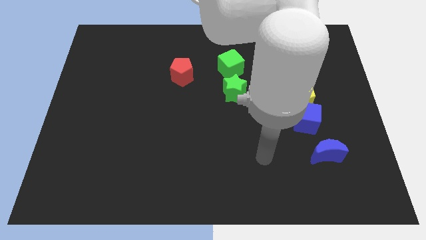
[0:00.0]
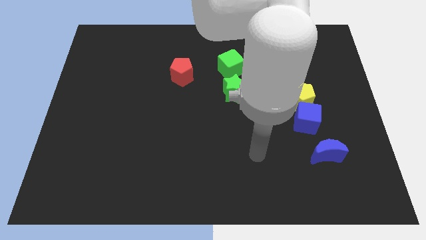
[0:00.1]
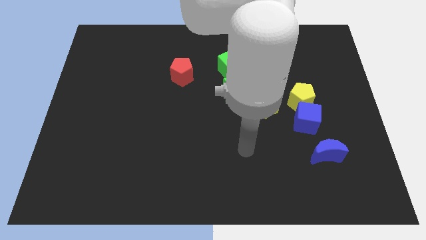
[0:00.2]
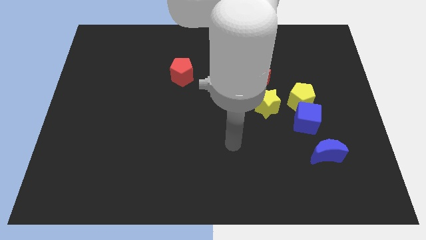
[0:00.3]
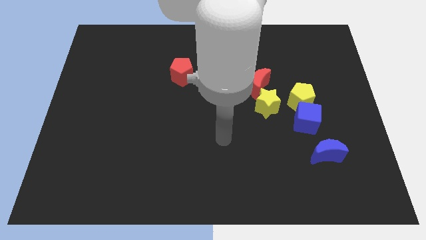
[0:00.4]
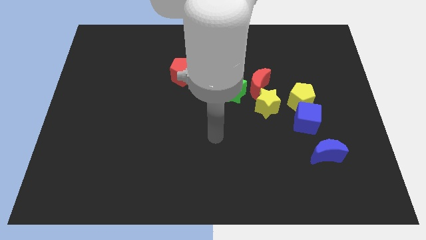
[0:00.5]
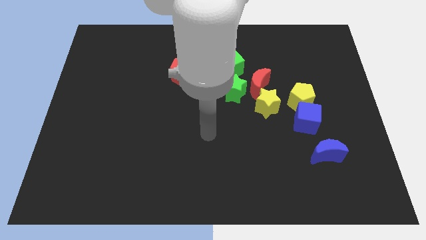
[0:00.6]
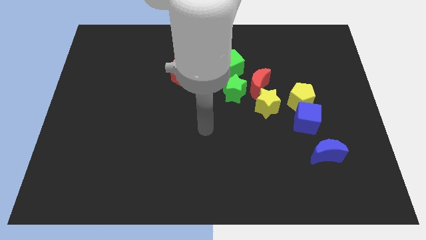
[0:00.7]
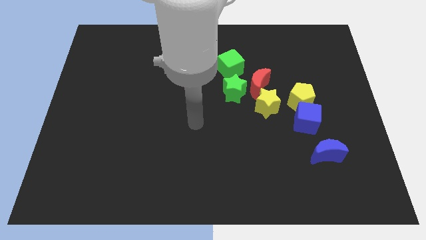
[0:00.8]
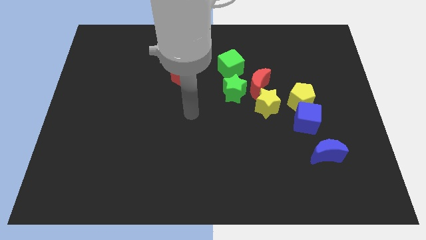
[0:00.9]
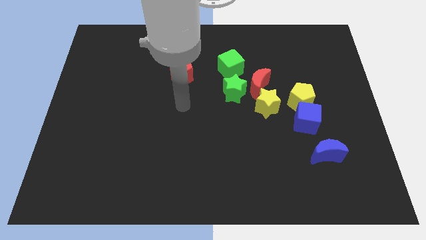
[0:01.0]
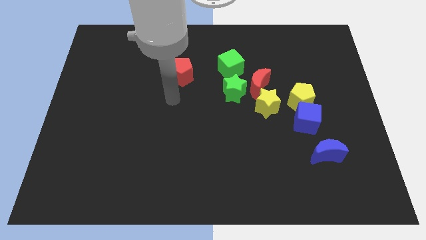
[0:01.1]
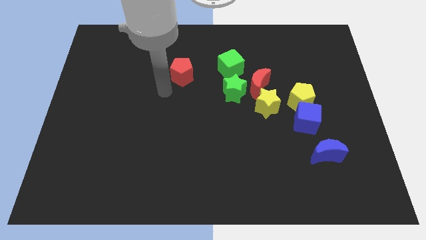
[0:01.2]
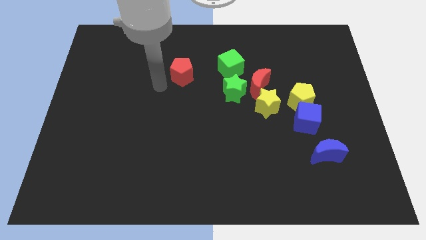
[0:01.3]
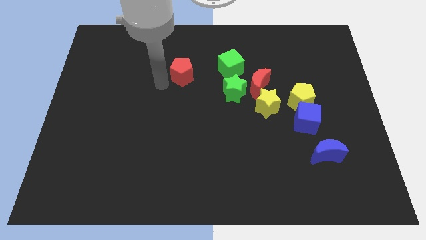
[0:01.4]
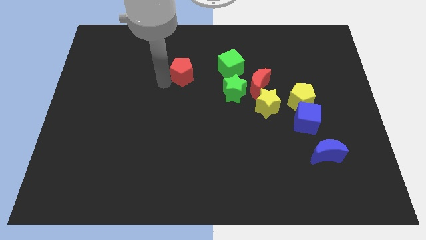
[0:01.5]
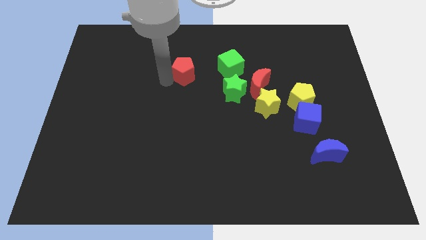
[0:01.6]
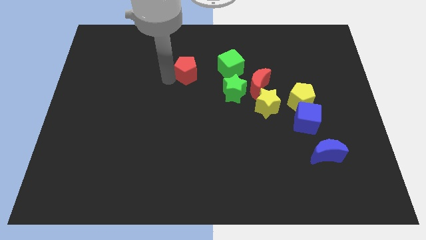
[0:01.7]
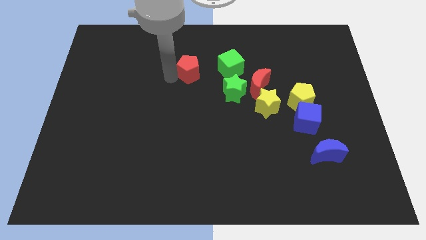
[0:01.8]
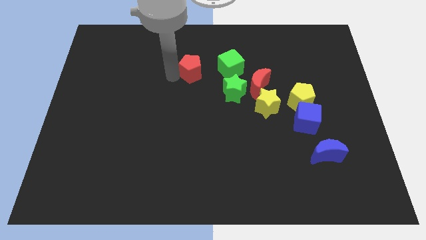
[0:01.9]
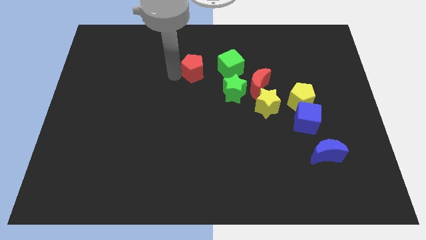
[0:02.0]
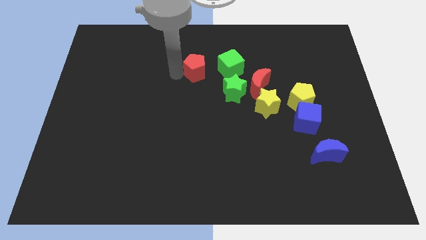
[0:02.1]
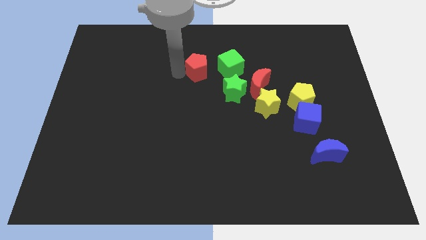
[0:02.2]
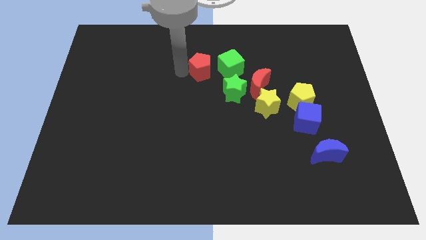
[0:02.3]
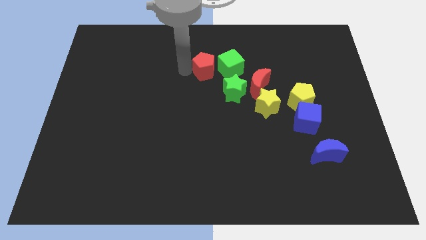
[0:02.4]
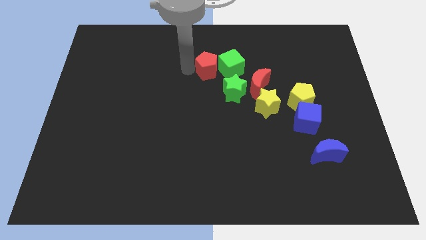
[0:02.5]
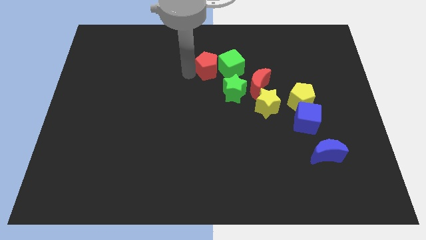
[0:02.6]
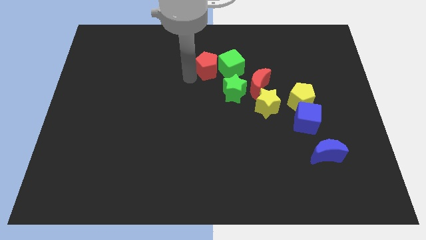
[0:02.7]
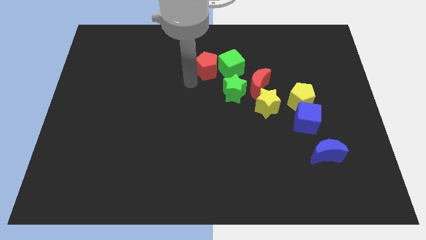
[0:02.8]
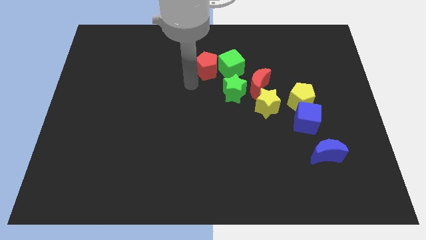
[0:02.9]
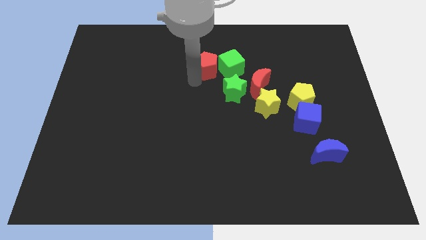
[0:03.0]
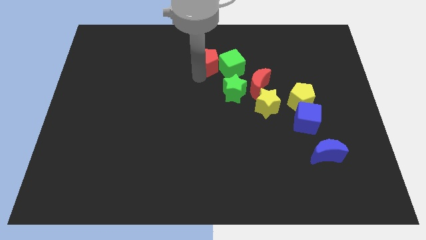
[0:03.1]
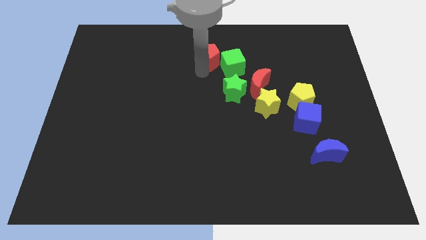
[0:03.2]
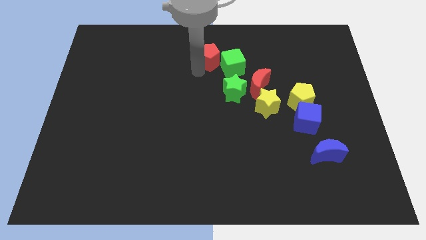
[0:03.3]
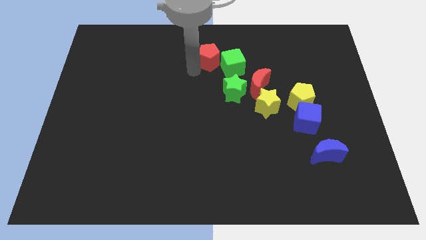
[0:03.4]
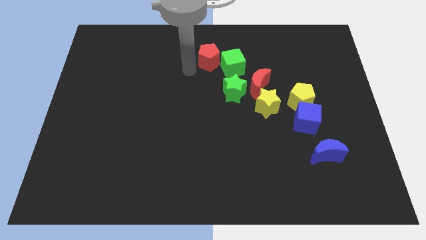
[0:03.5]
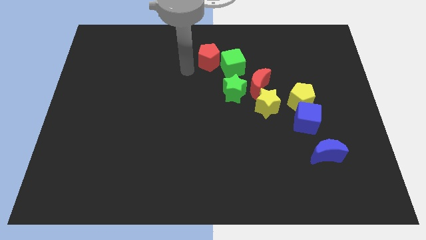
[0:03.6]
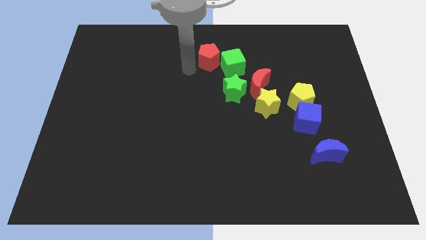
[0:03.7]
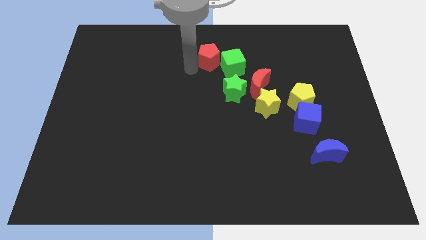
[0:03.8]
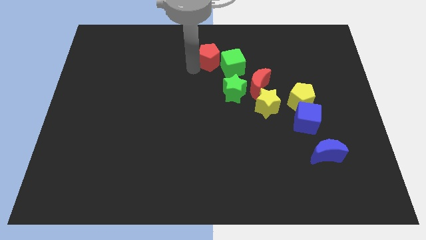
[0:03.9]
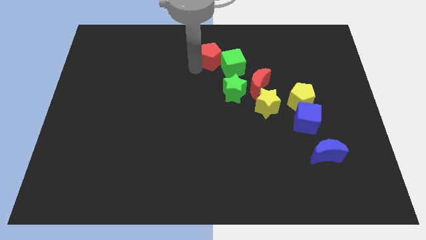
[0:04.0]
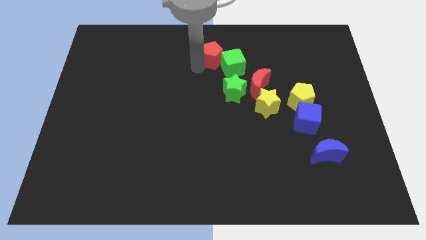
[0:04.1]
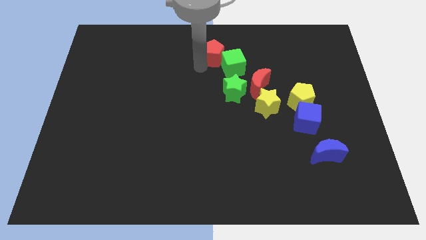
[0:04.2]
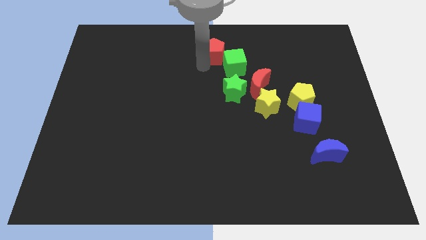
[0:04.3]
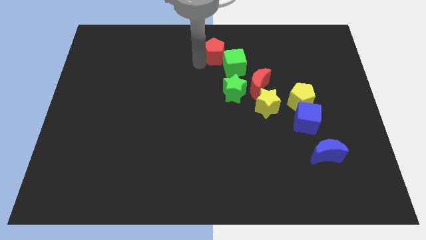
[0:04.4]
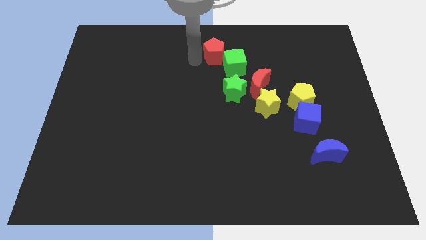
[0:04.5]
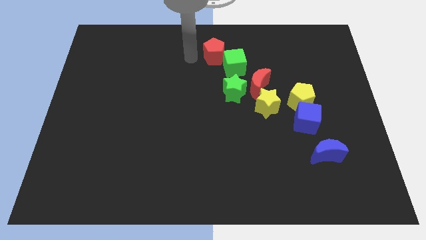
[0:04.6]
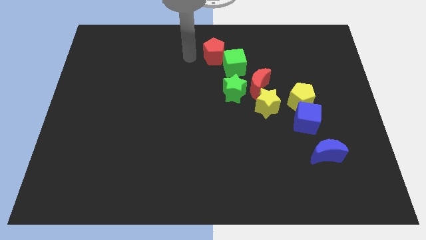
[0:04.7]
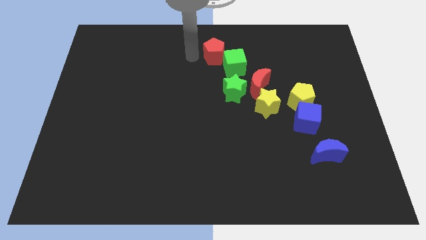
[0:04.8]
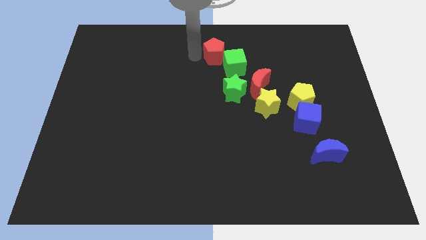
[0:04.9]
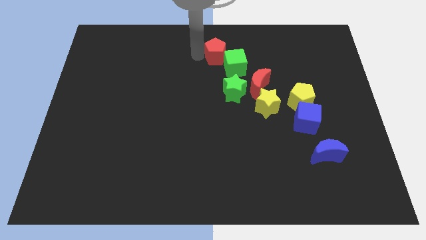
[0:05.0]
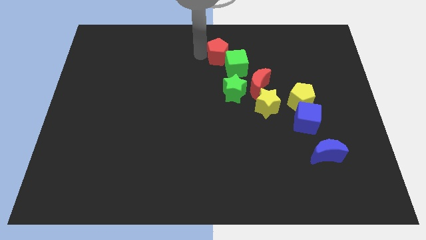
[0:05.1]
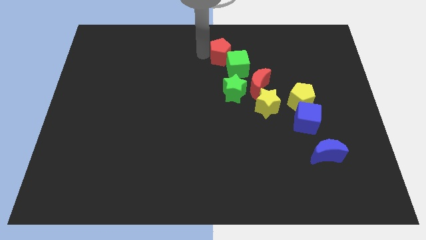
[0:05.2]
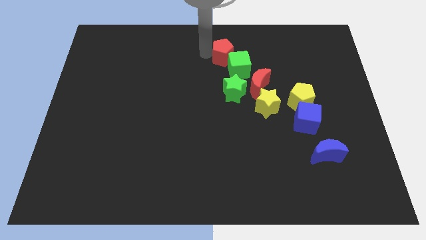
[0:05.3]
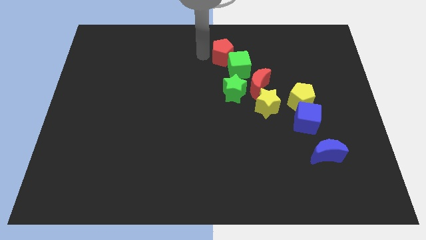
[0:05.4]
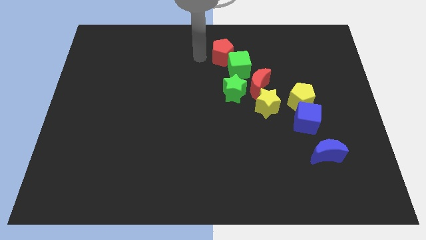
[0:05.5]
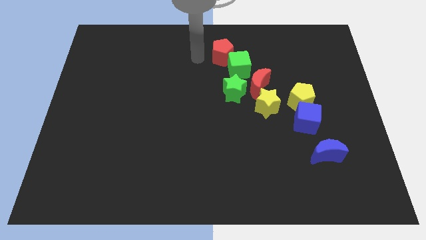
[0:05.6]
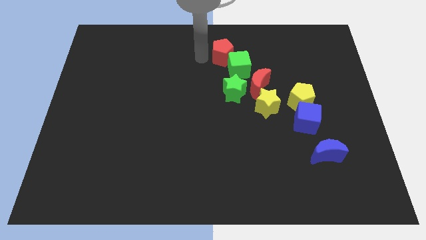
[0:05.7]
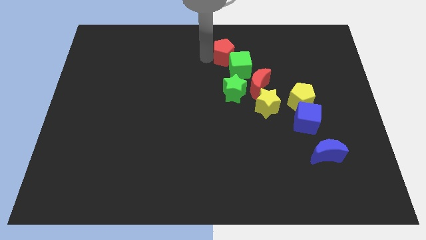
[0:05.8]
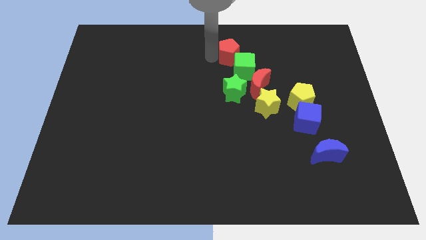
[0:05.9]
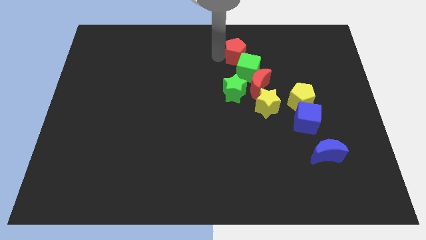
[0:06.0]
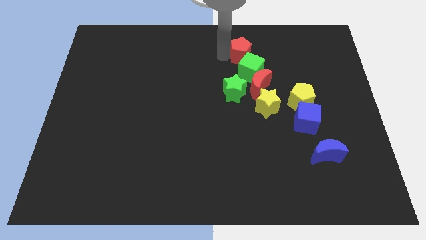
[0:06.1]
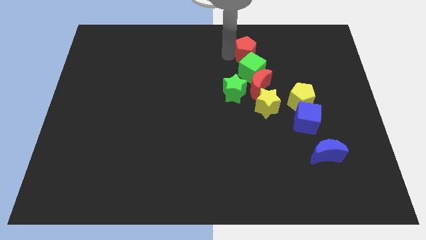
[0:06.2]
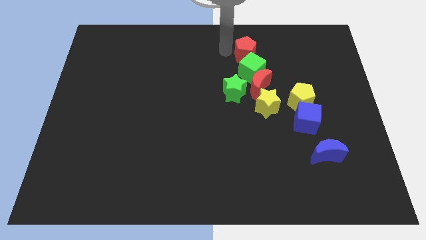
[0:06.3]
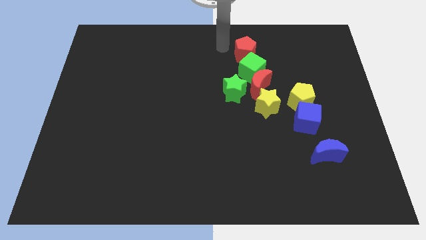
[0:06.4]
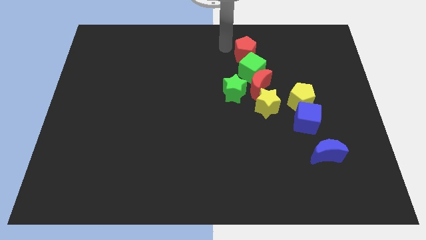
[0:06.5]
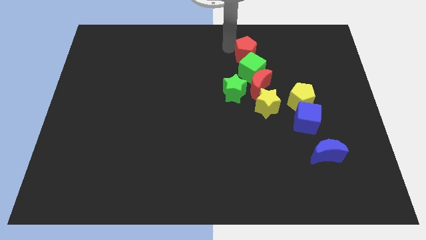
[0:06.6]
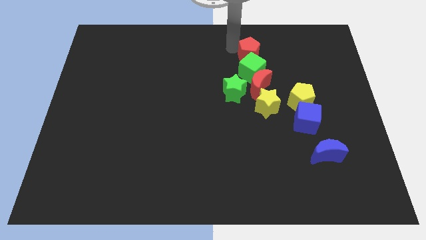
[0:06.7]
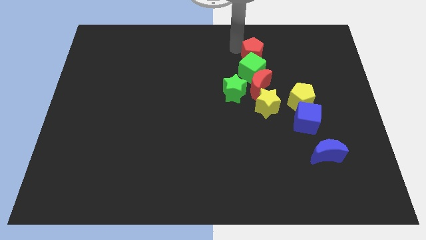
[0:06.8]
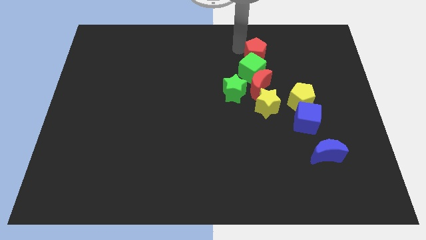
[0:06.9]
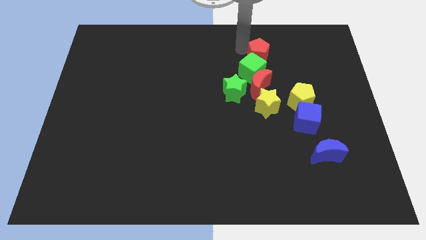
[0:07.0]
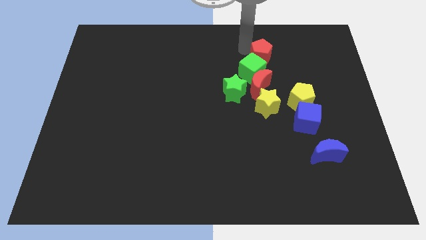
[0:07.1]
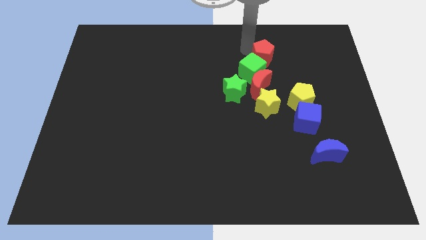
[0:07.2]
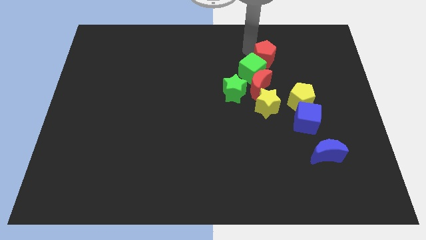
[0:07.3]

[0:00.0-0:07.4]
push the red pentagon to the right

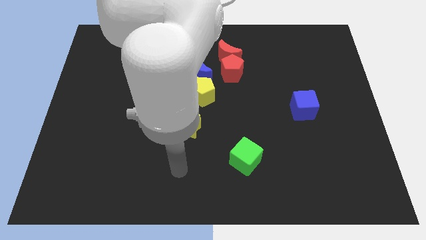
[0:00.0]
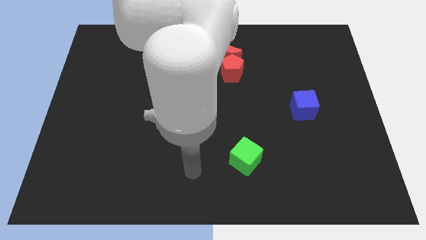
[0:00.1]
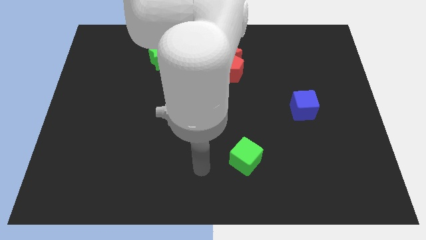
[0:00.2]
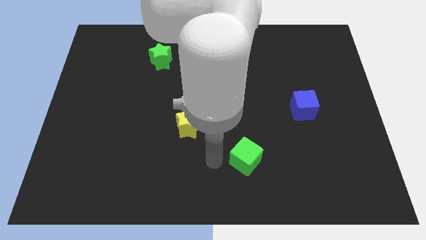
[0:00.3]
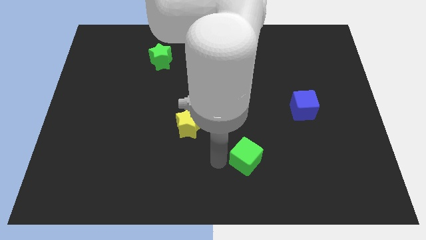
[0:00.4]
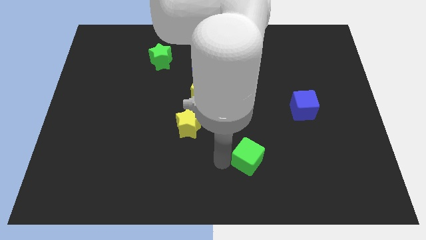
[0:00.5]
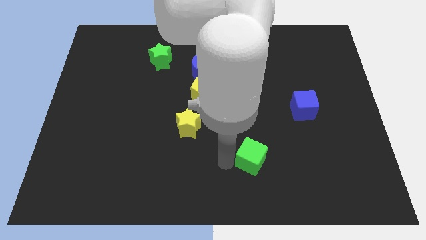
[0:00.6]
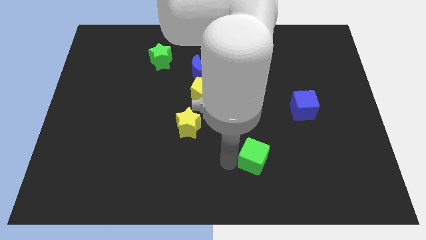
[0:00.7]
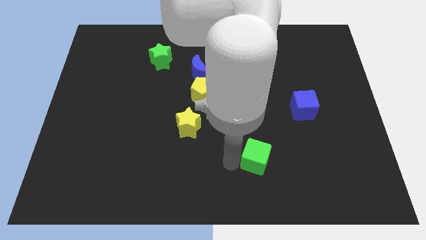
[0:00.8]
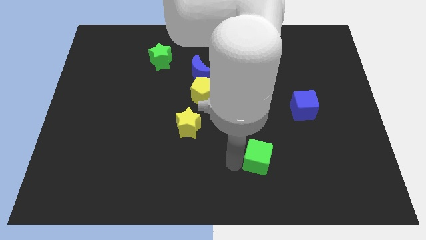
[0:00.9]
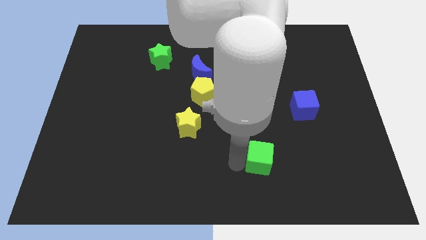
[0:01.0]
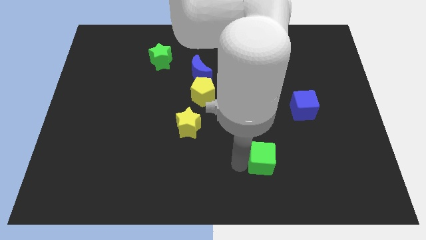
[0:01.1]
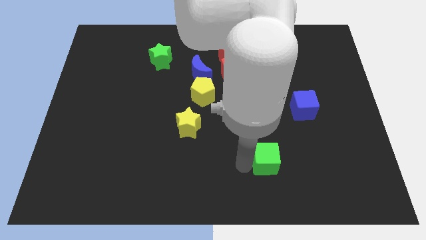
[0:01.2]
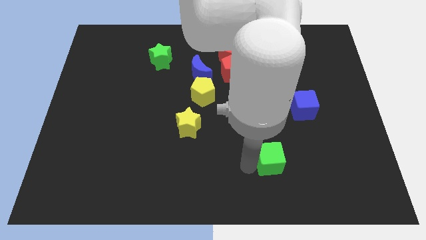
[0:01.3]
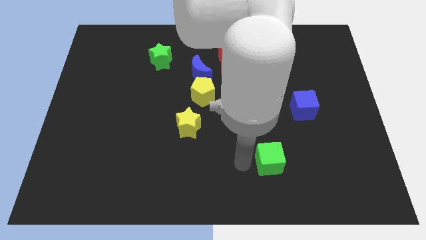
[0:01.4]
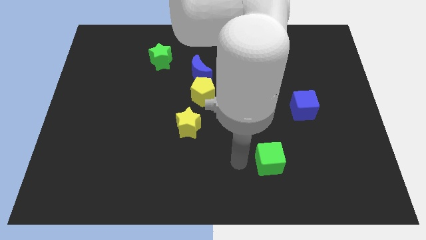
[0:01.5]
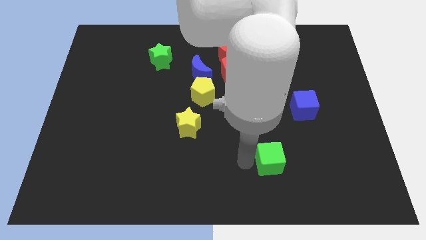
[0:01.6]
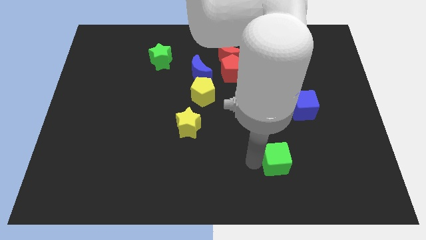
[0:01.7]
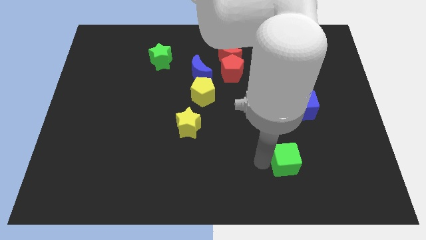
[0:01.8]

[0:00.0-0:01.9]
slightly push the green cube to the right
